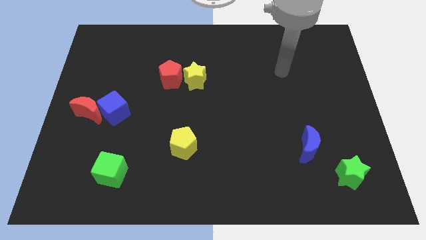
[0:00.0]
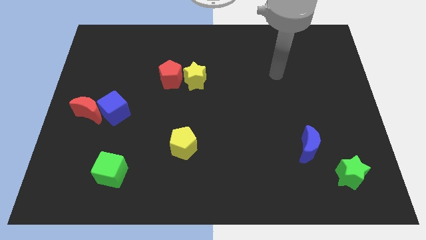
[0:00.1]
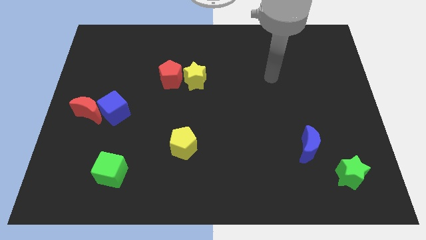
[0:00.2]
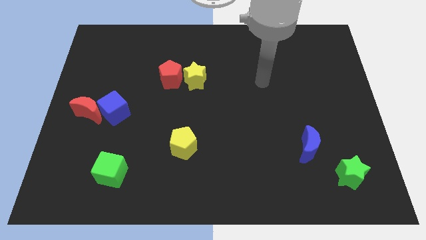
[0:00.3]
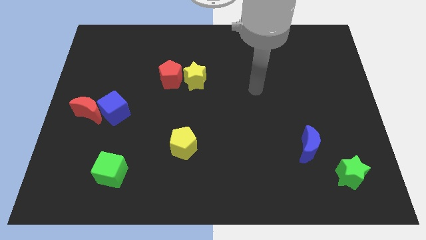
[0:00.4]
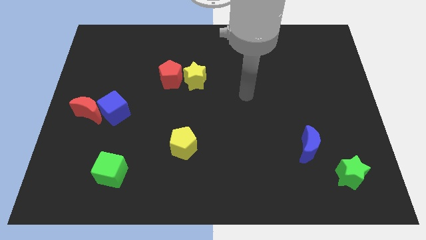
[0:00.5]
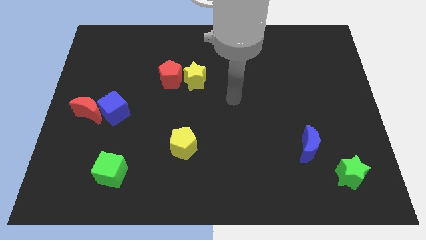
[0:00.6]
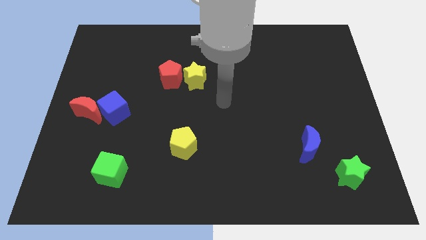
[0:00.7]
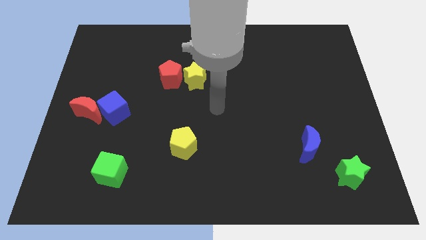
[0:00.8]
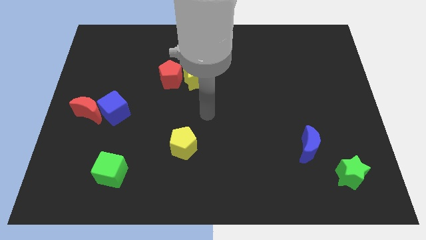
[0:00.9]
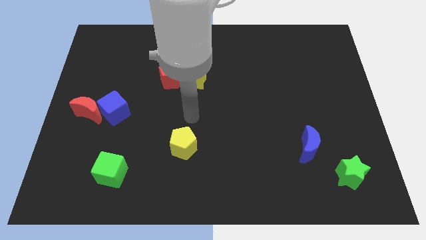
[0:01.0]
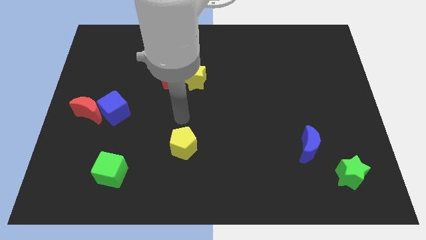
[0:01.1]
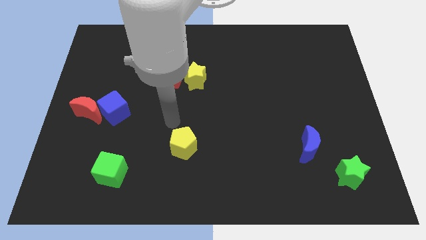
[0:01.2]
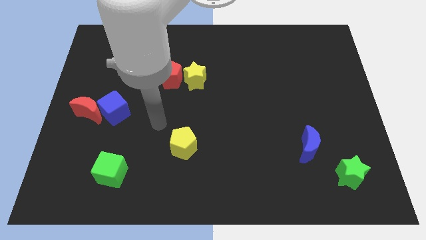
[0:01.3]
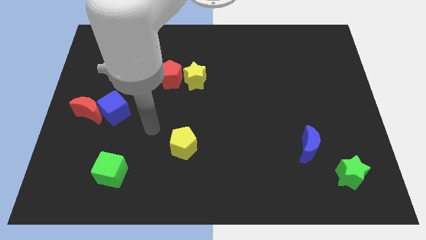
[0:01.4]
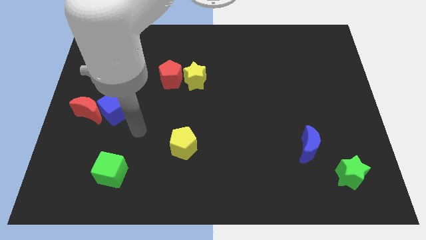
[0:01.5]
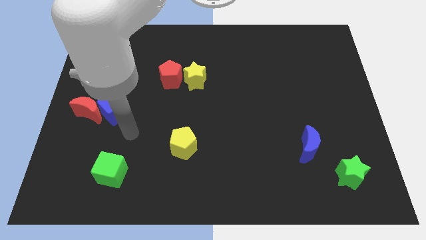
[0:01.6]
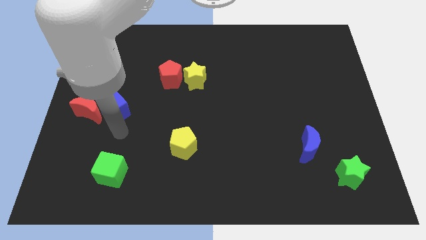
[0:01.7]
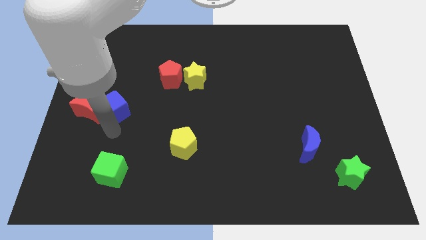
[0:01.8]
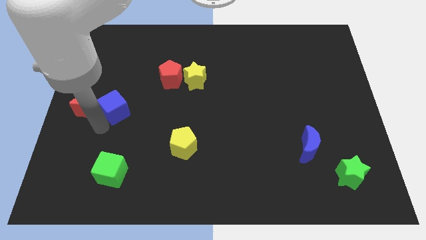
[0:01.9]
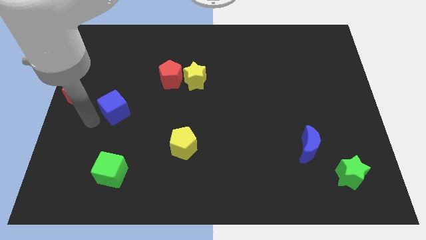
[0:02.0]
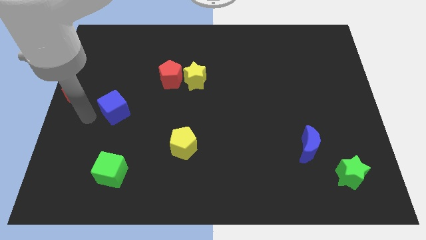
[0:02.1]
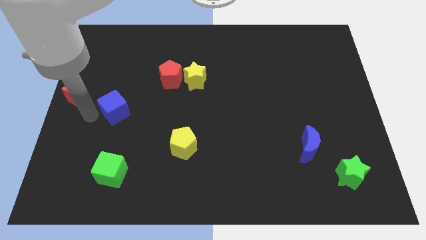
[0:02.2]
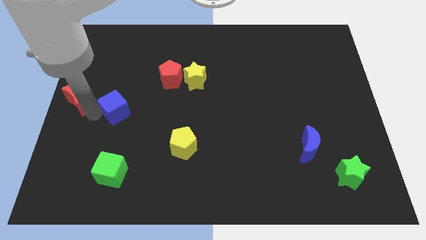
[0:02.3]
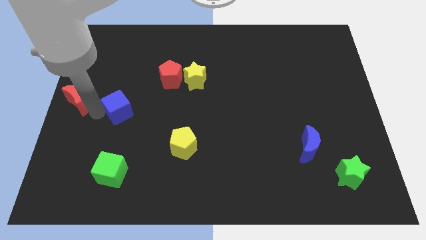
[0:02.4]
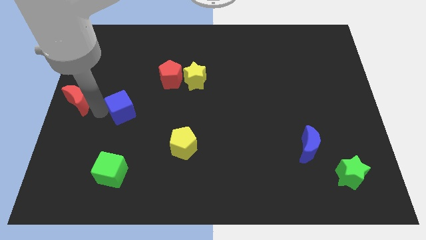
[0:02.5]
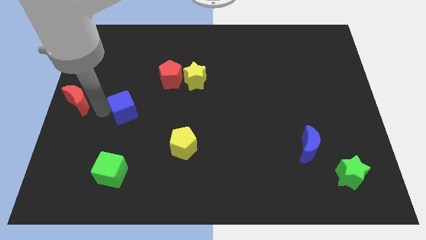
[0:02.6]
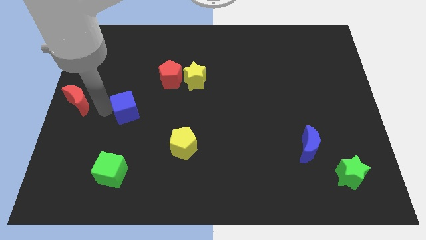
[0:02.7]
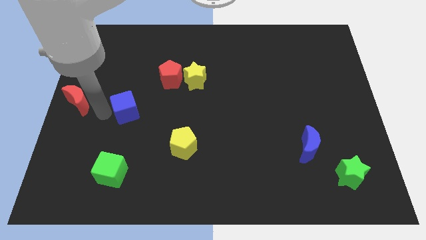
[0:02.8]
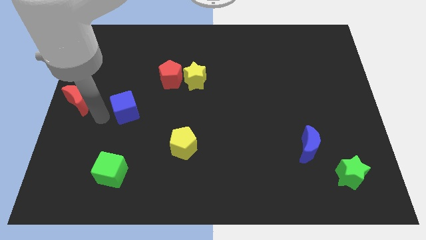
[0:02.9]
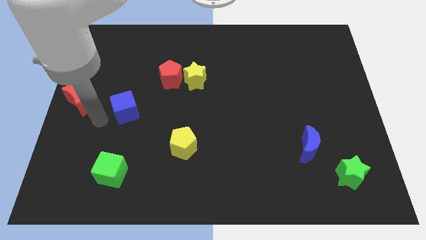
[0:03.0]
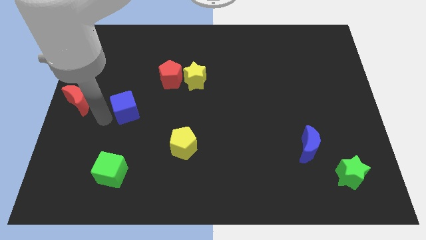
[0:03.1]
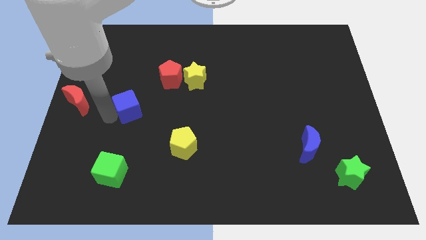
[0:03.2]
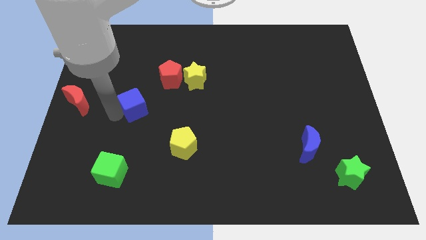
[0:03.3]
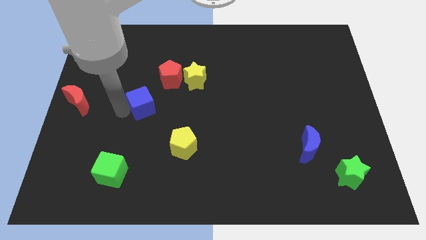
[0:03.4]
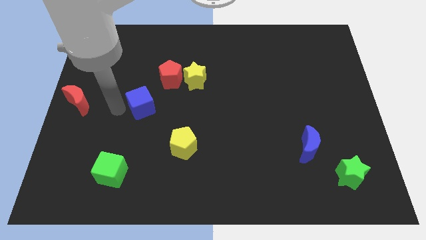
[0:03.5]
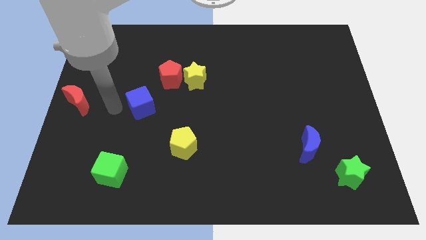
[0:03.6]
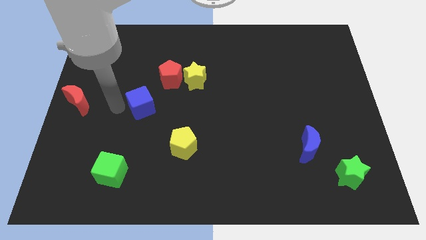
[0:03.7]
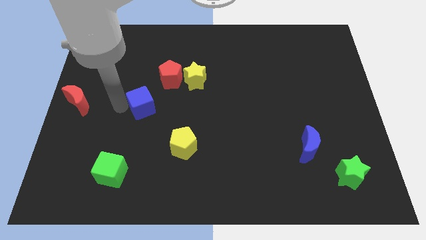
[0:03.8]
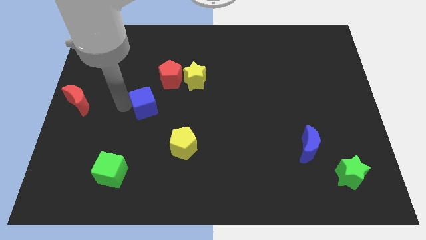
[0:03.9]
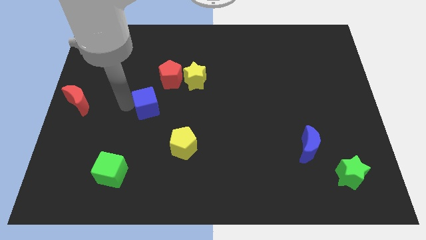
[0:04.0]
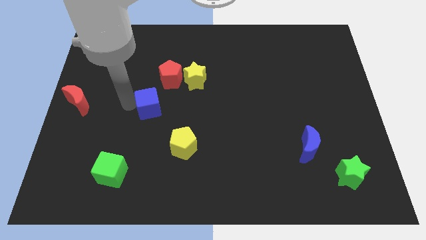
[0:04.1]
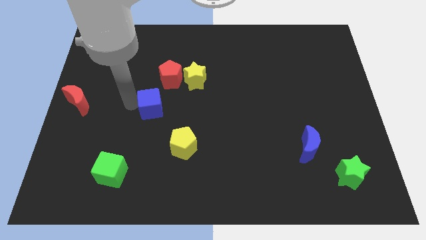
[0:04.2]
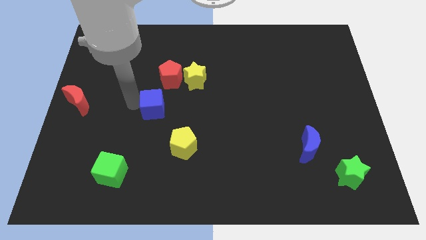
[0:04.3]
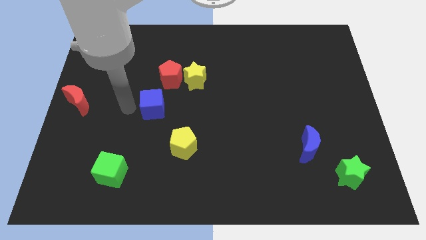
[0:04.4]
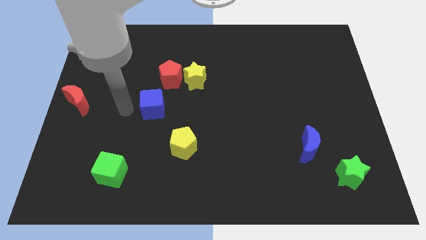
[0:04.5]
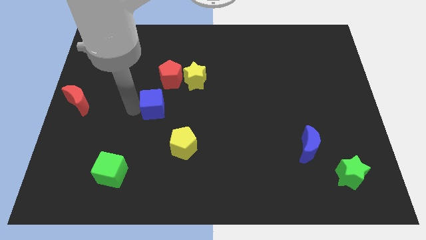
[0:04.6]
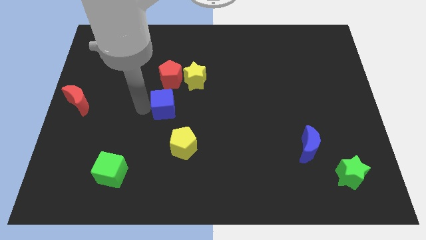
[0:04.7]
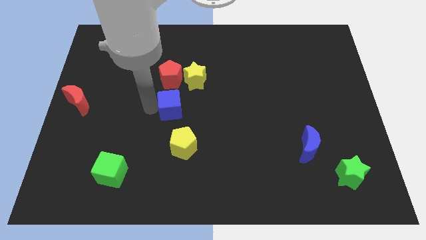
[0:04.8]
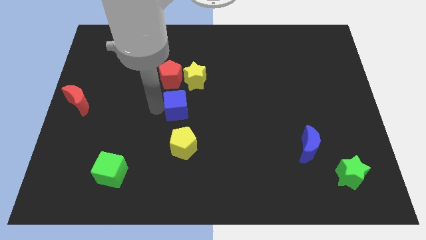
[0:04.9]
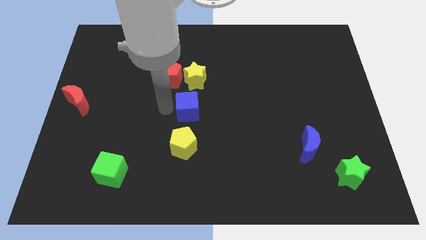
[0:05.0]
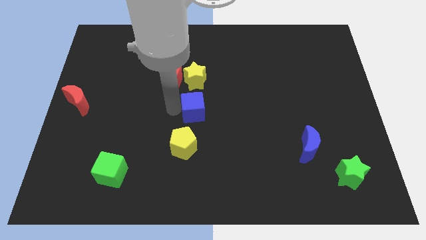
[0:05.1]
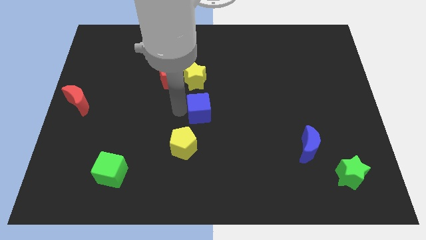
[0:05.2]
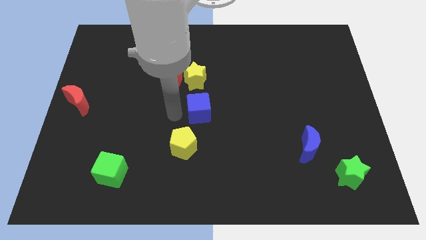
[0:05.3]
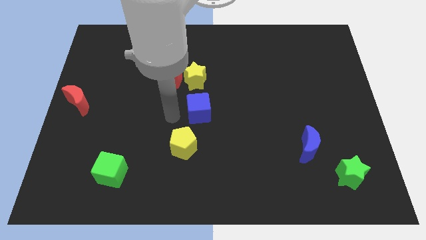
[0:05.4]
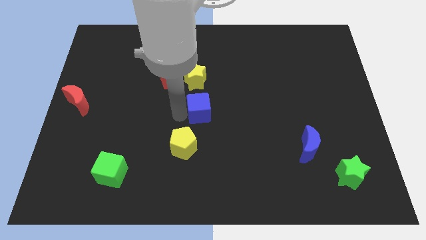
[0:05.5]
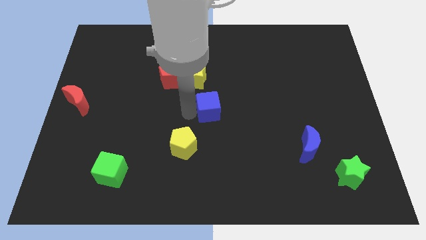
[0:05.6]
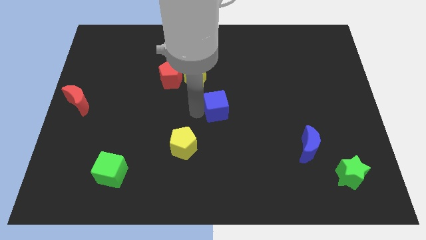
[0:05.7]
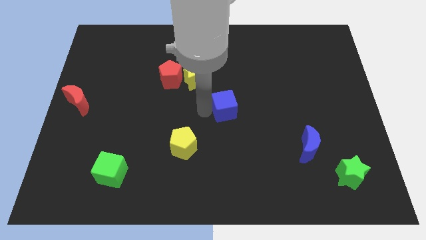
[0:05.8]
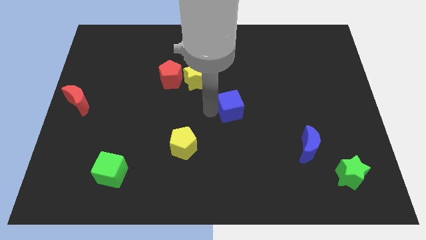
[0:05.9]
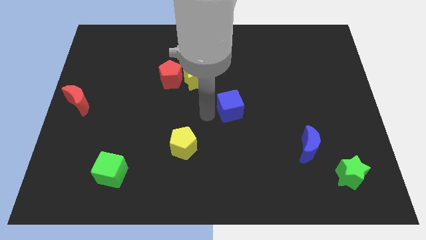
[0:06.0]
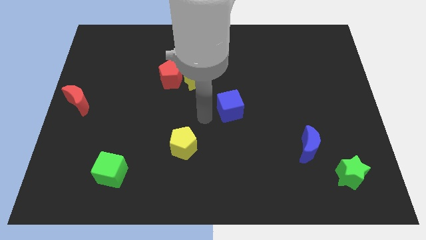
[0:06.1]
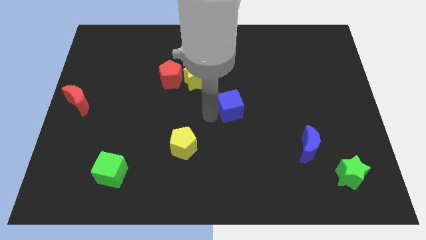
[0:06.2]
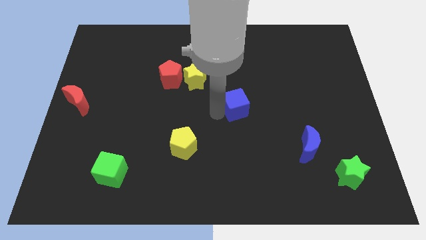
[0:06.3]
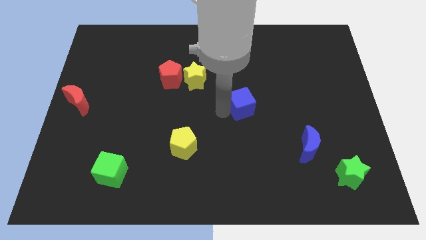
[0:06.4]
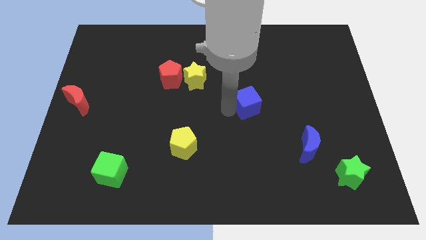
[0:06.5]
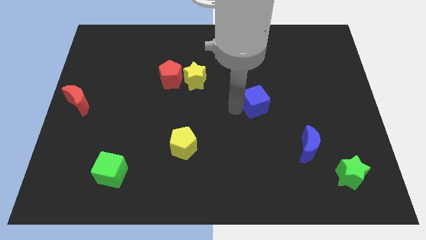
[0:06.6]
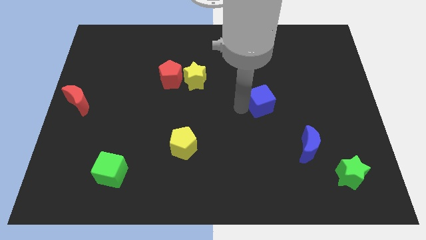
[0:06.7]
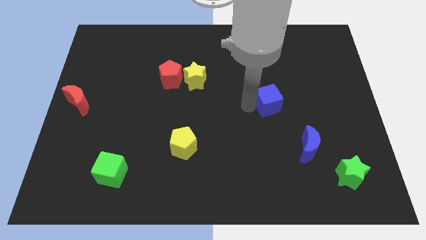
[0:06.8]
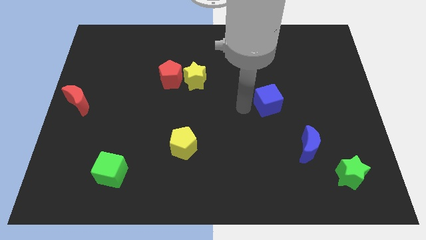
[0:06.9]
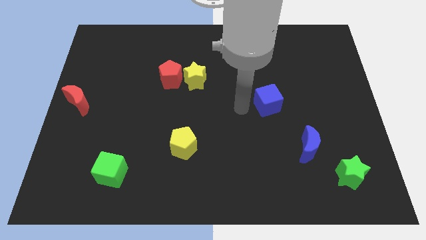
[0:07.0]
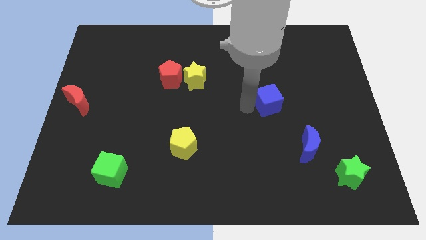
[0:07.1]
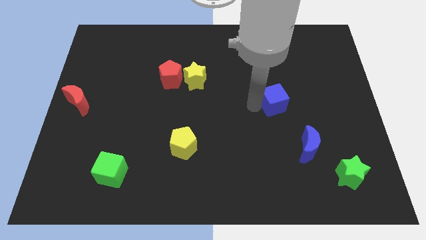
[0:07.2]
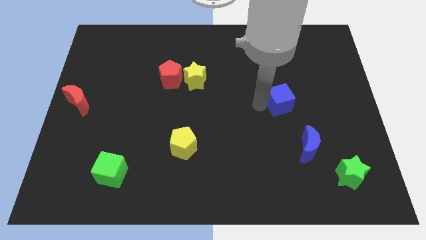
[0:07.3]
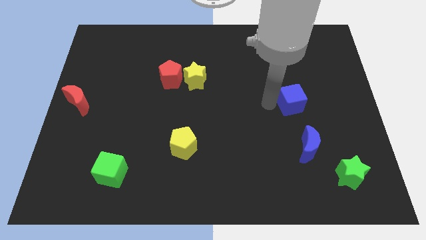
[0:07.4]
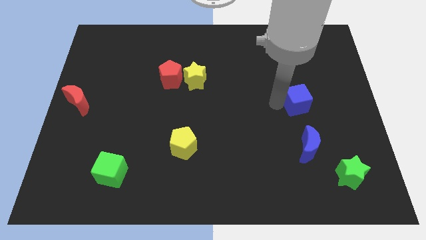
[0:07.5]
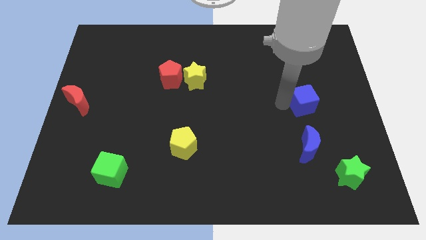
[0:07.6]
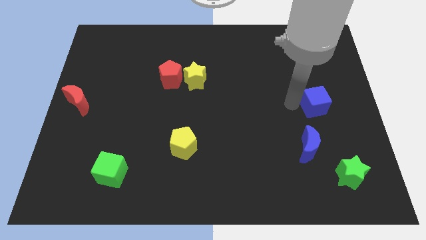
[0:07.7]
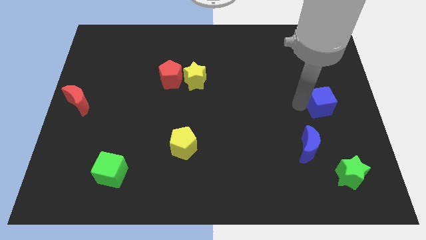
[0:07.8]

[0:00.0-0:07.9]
move the blue cube to the right side of the board
